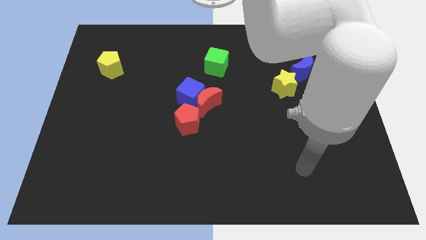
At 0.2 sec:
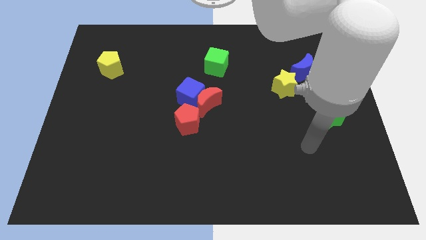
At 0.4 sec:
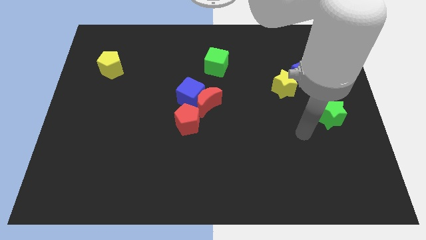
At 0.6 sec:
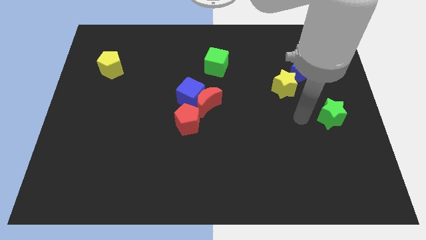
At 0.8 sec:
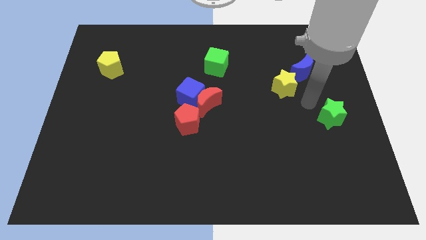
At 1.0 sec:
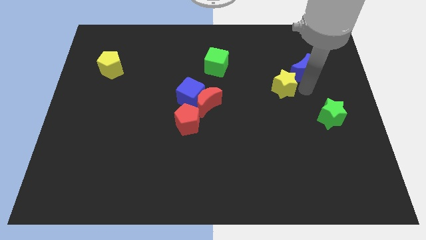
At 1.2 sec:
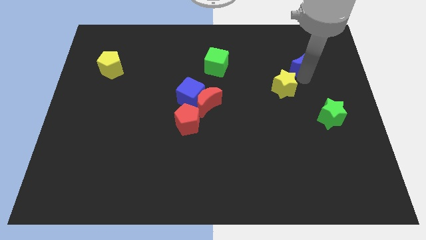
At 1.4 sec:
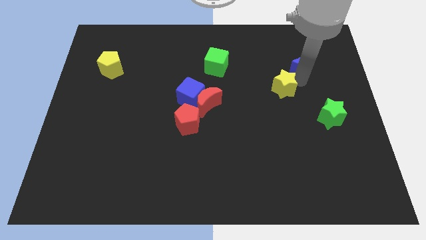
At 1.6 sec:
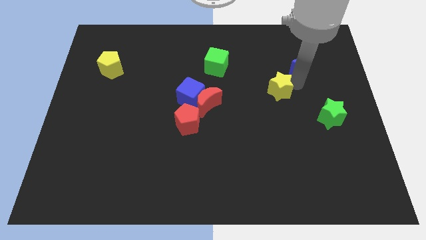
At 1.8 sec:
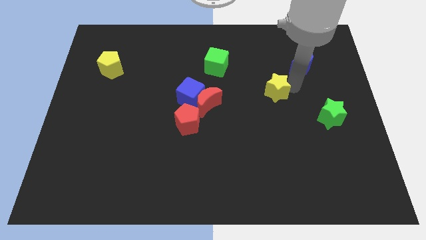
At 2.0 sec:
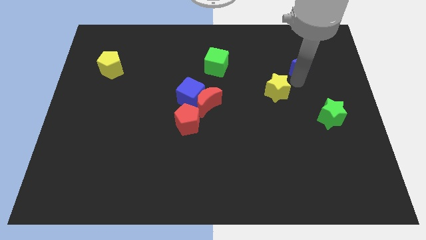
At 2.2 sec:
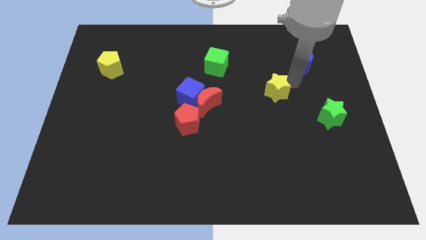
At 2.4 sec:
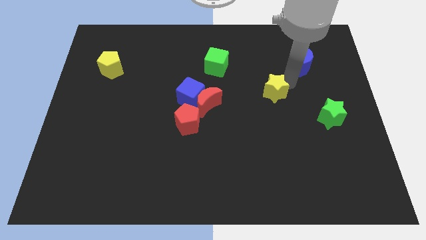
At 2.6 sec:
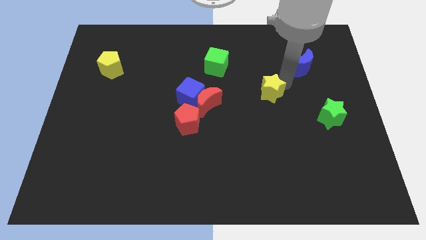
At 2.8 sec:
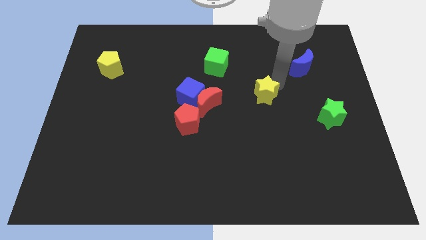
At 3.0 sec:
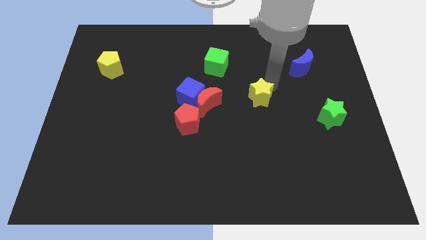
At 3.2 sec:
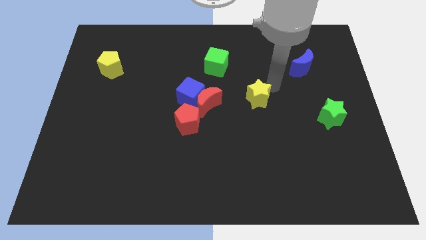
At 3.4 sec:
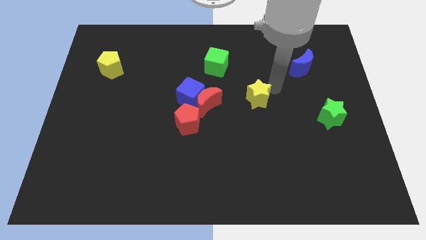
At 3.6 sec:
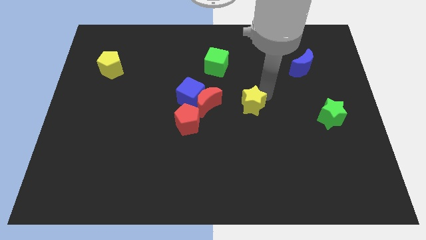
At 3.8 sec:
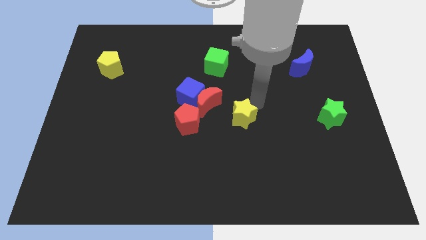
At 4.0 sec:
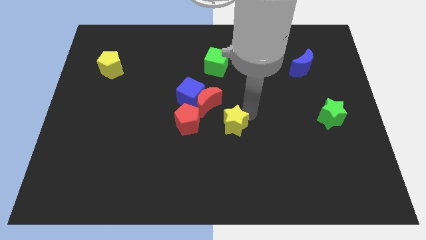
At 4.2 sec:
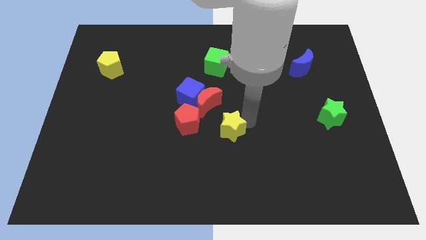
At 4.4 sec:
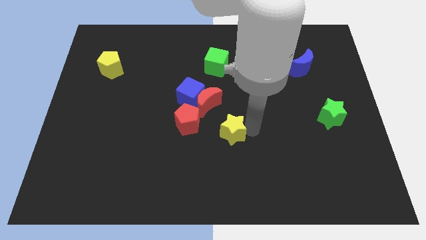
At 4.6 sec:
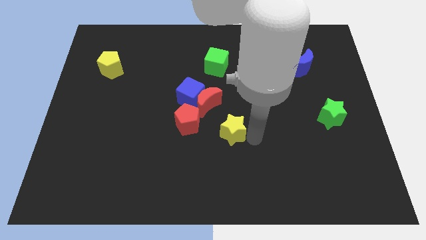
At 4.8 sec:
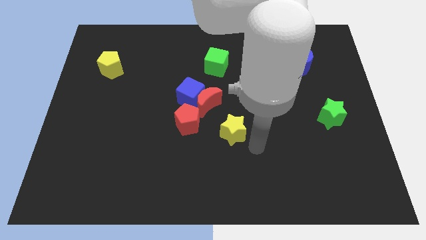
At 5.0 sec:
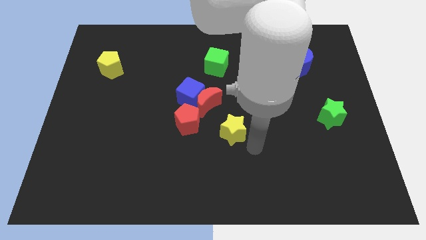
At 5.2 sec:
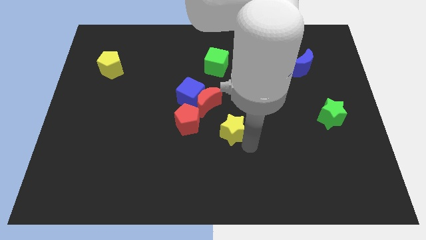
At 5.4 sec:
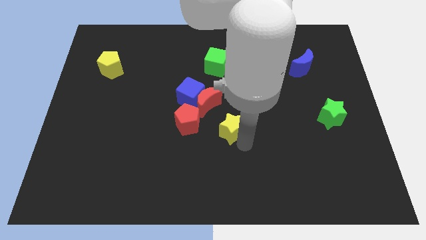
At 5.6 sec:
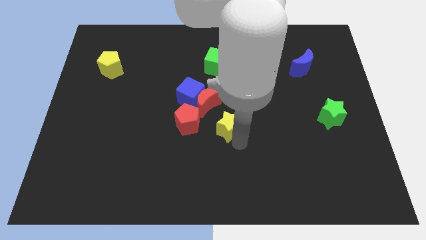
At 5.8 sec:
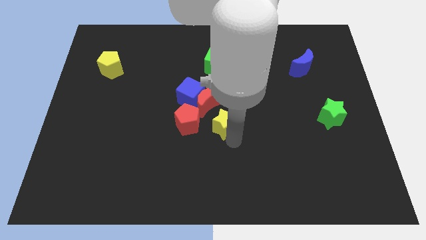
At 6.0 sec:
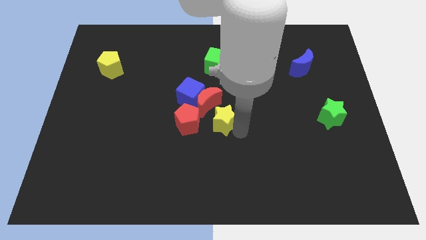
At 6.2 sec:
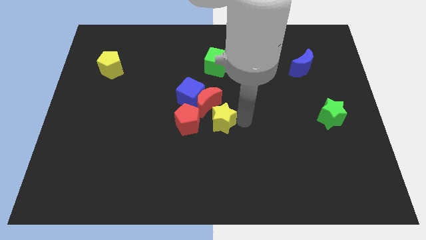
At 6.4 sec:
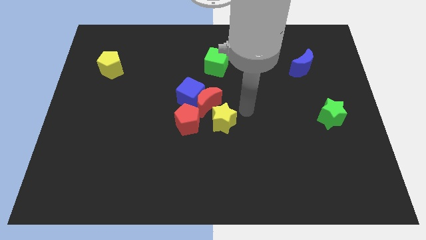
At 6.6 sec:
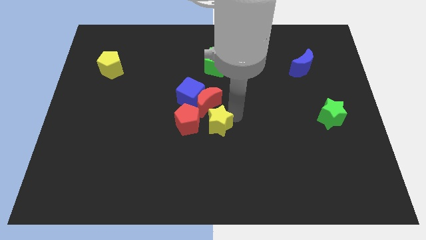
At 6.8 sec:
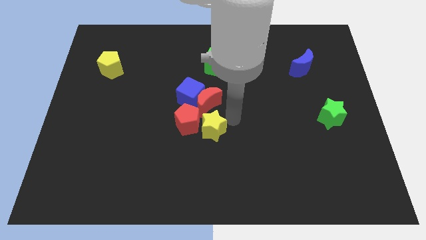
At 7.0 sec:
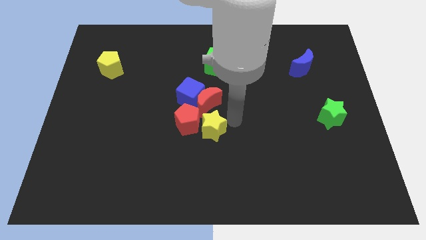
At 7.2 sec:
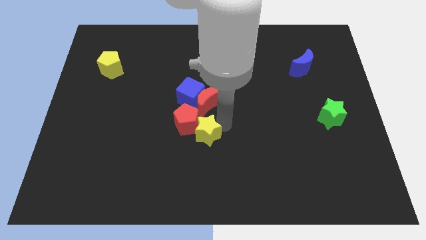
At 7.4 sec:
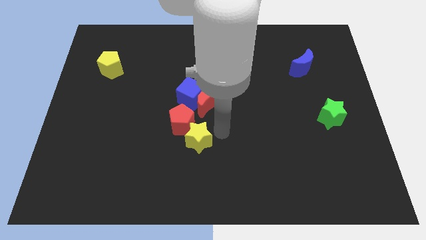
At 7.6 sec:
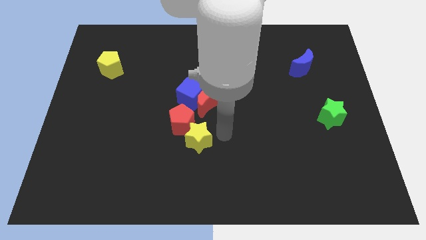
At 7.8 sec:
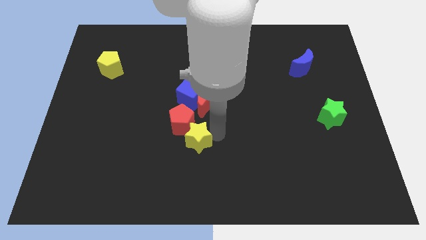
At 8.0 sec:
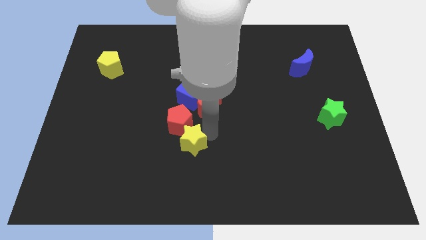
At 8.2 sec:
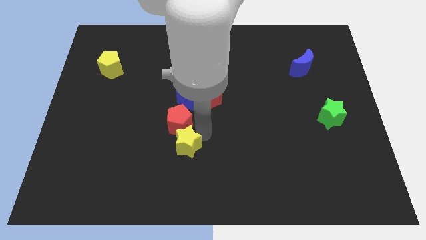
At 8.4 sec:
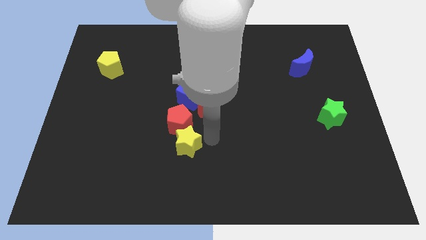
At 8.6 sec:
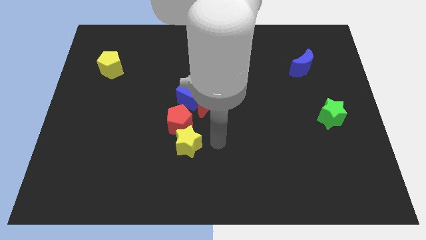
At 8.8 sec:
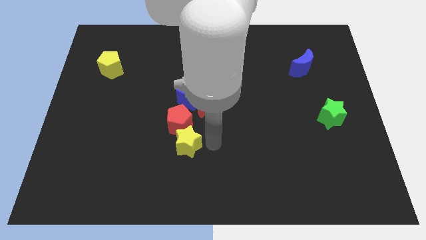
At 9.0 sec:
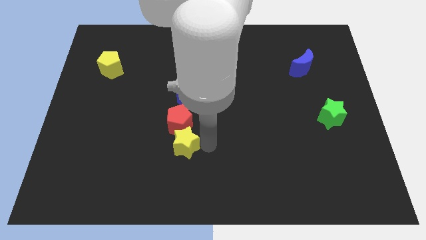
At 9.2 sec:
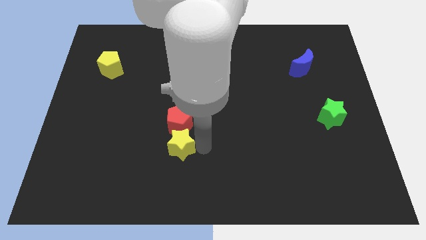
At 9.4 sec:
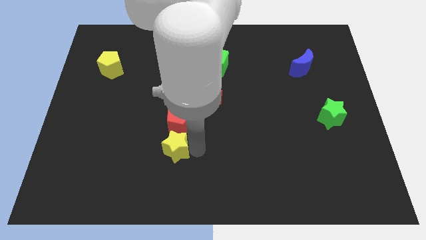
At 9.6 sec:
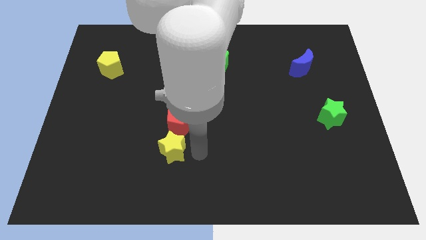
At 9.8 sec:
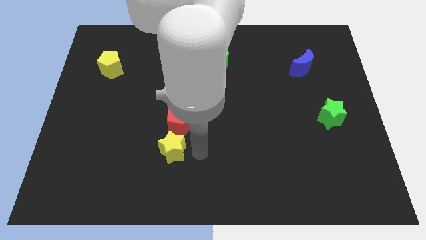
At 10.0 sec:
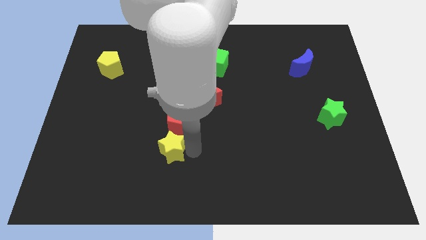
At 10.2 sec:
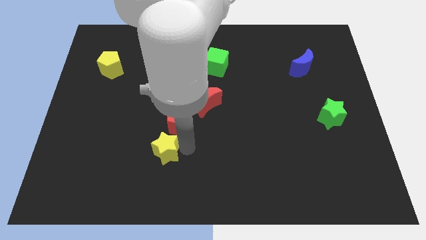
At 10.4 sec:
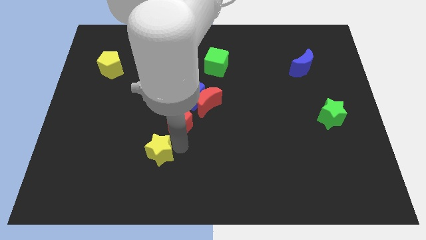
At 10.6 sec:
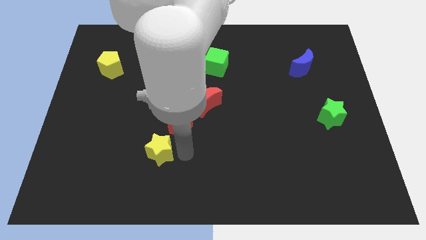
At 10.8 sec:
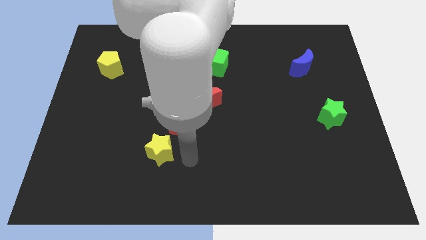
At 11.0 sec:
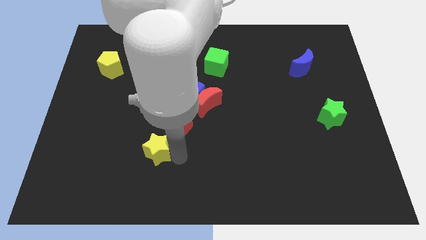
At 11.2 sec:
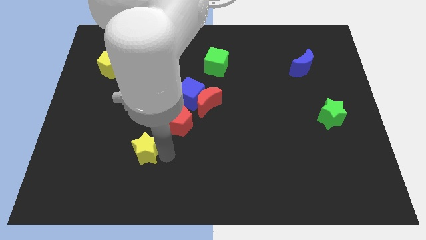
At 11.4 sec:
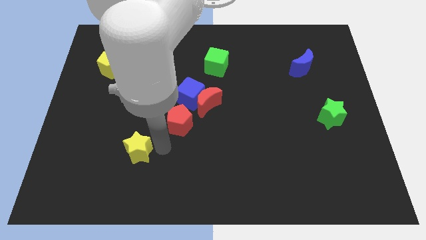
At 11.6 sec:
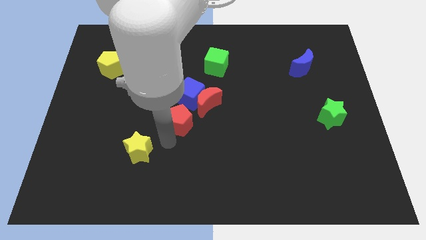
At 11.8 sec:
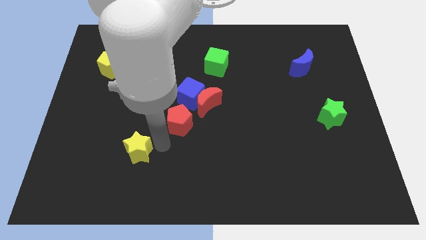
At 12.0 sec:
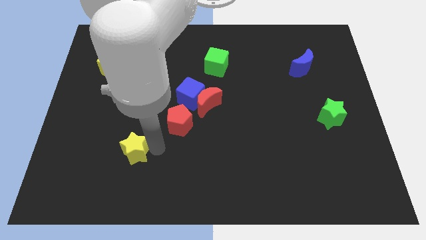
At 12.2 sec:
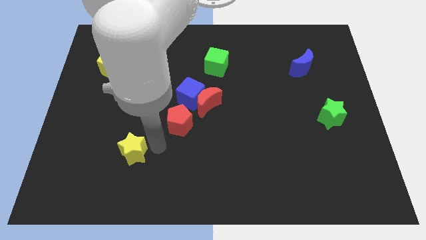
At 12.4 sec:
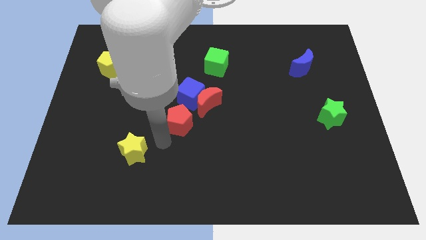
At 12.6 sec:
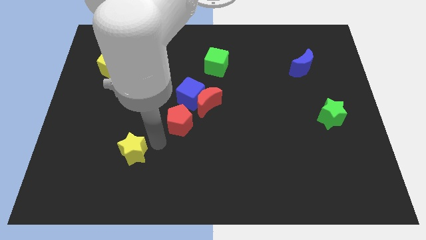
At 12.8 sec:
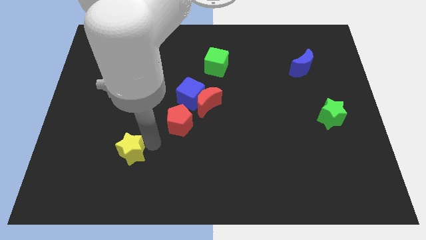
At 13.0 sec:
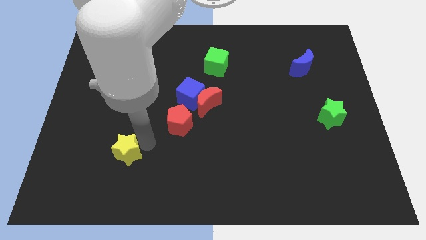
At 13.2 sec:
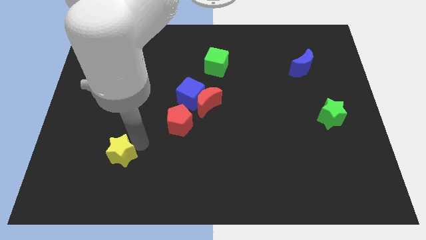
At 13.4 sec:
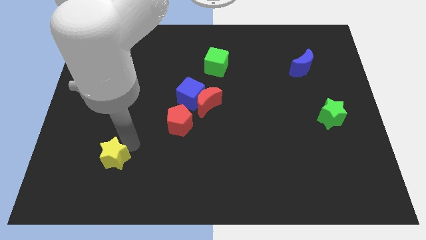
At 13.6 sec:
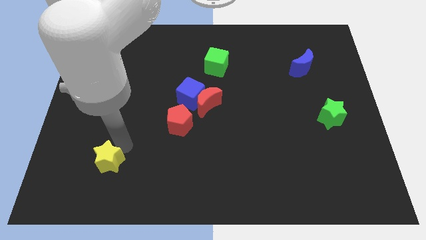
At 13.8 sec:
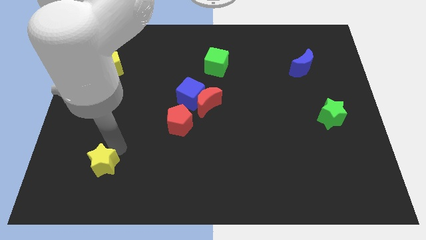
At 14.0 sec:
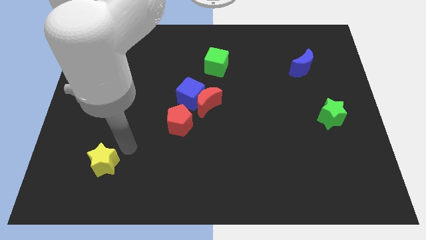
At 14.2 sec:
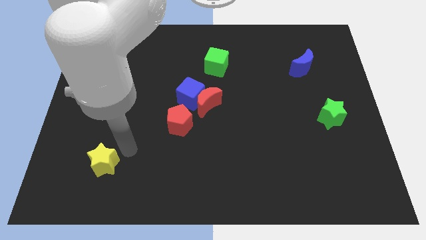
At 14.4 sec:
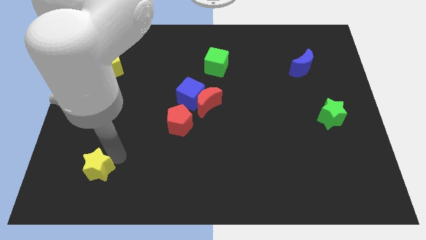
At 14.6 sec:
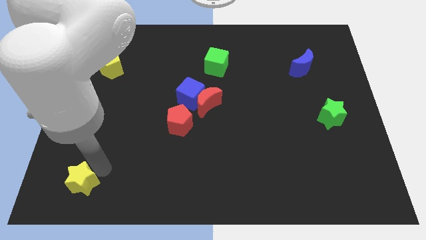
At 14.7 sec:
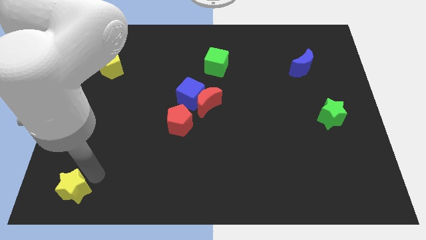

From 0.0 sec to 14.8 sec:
move the yellow star to the lower left corner
